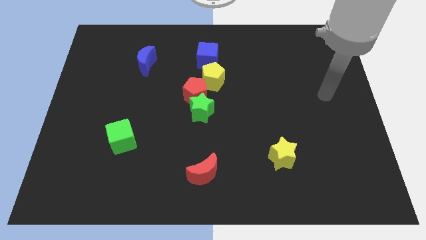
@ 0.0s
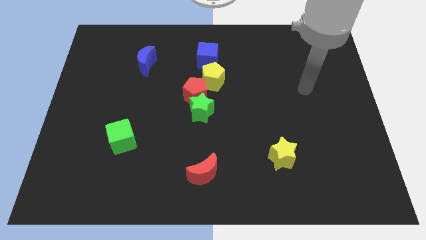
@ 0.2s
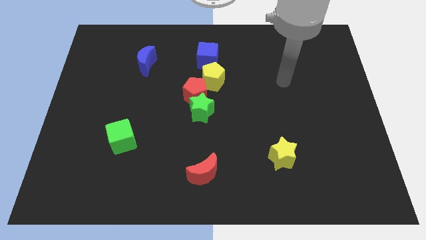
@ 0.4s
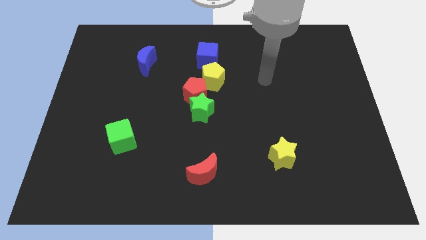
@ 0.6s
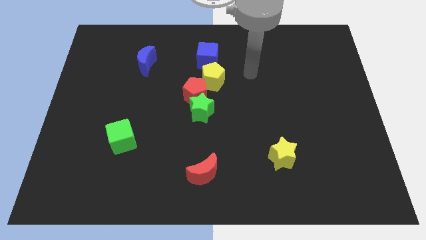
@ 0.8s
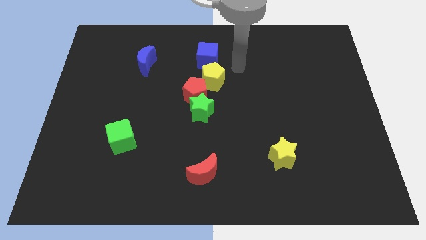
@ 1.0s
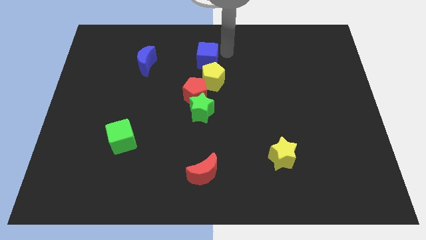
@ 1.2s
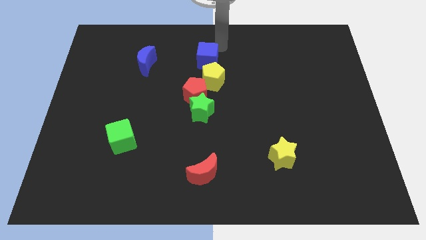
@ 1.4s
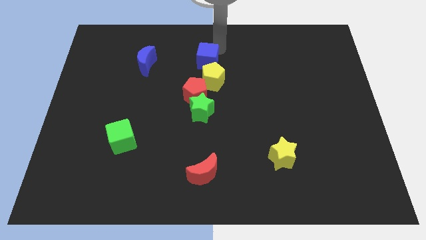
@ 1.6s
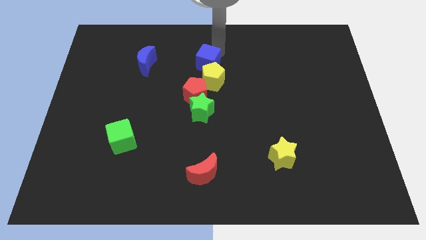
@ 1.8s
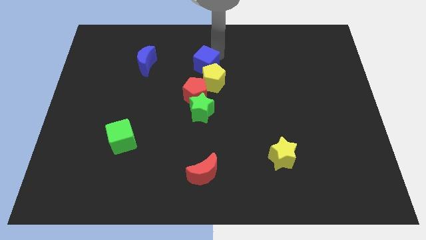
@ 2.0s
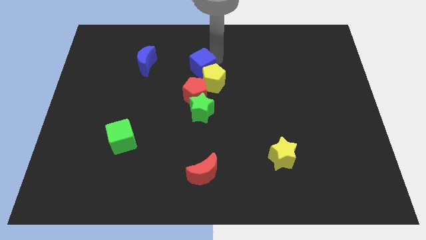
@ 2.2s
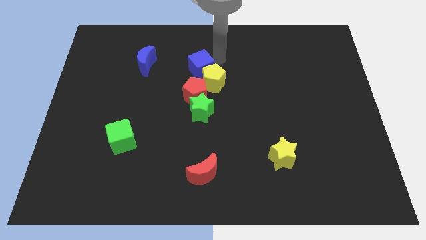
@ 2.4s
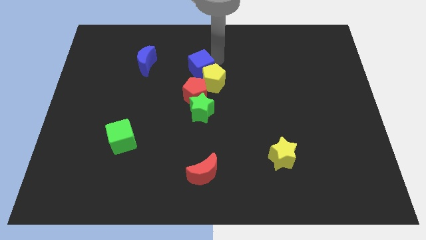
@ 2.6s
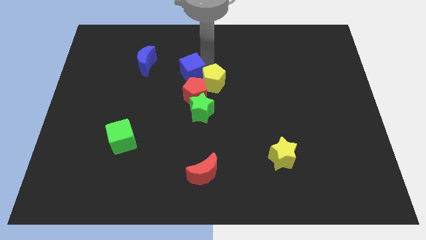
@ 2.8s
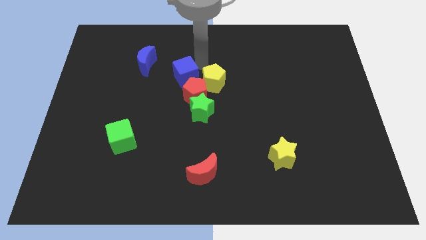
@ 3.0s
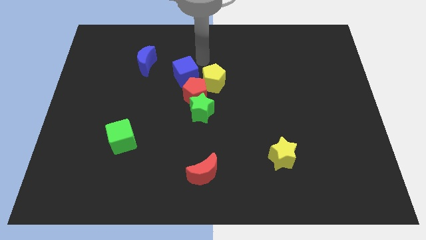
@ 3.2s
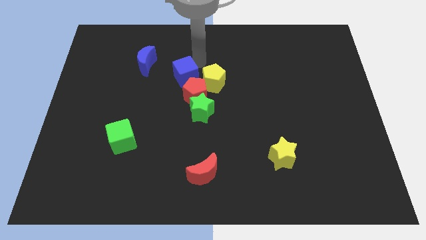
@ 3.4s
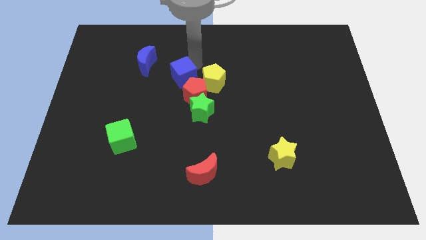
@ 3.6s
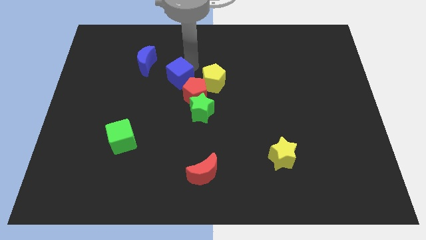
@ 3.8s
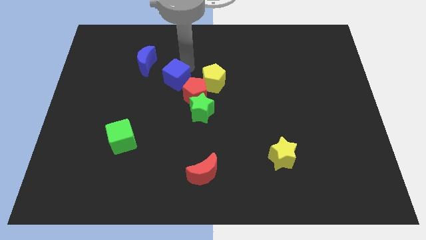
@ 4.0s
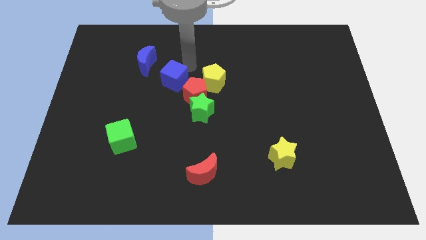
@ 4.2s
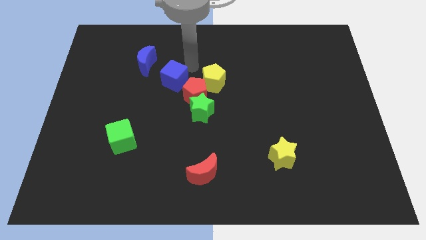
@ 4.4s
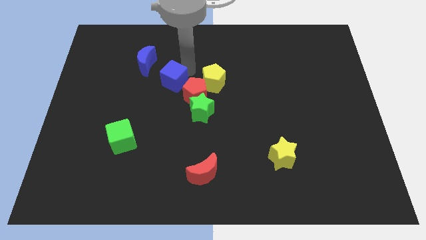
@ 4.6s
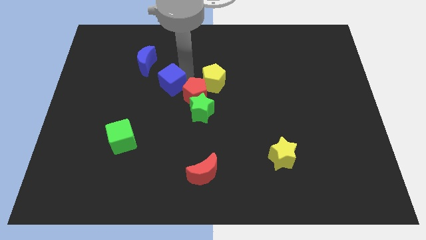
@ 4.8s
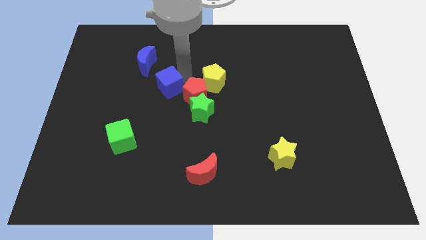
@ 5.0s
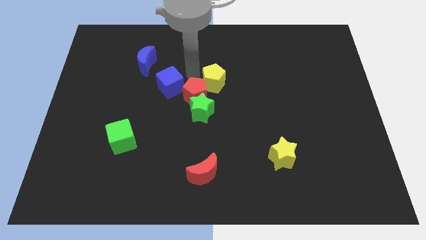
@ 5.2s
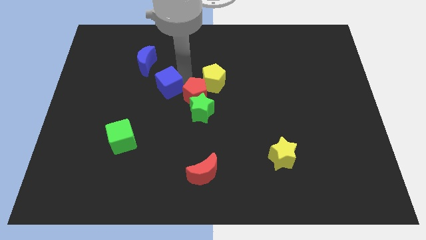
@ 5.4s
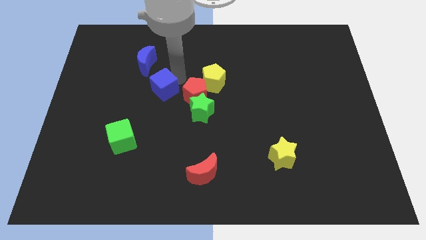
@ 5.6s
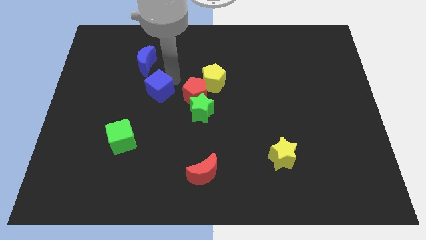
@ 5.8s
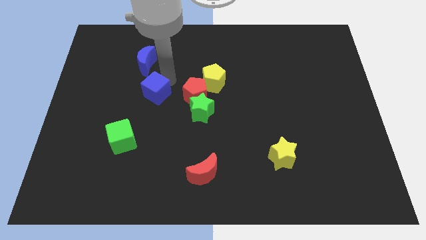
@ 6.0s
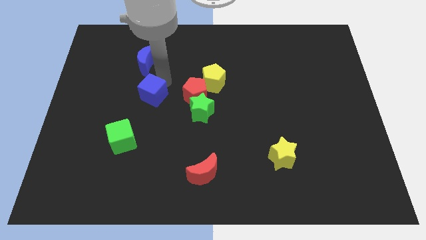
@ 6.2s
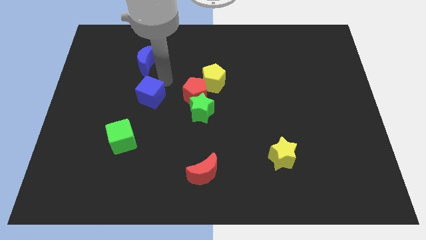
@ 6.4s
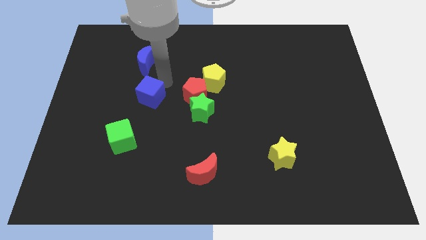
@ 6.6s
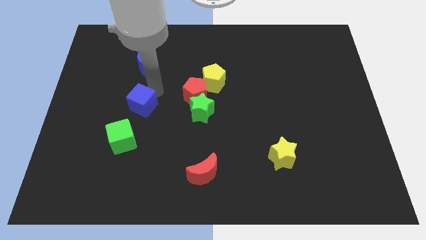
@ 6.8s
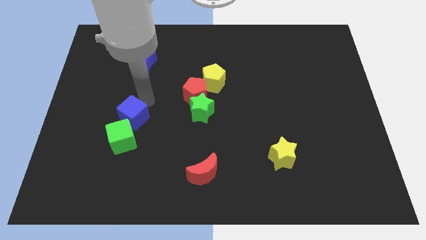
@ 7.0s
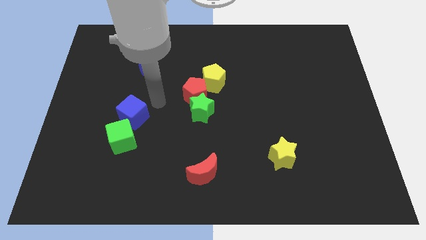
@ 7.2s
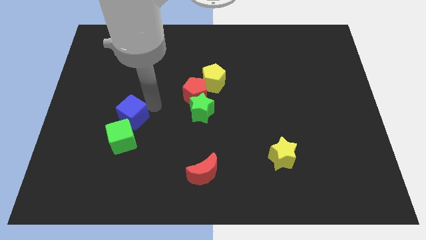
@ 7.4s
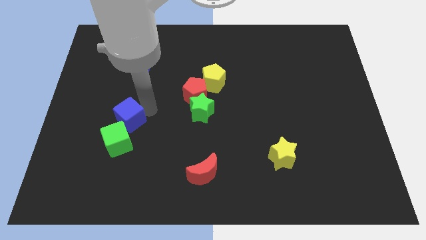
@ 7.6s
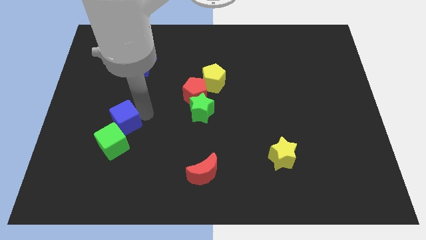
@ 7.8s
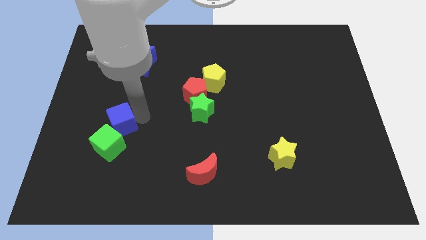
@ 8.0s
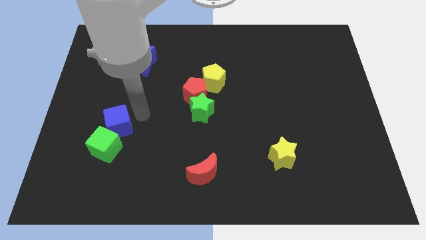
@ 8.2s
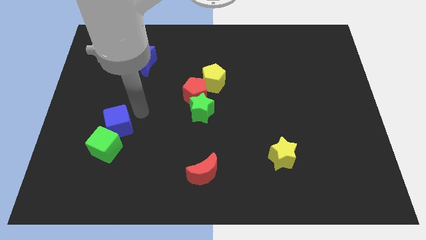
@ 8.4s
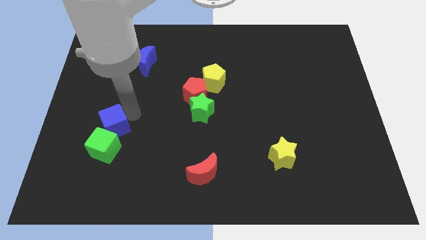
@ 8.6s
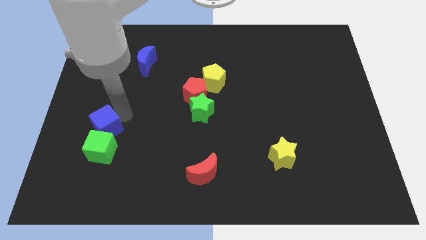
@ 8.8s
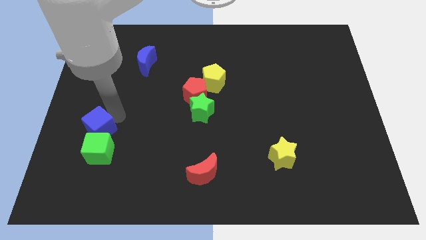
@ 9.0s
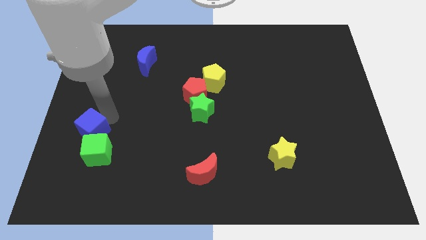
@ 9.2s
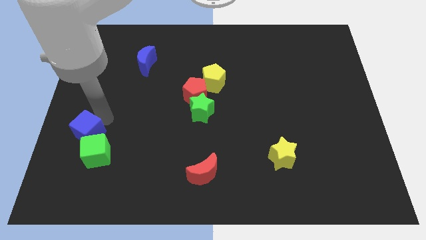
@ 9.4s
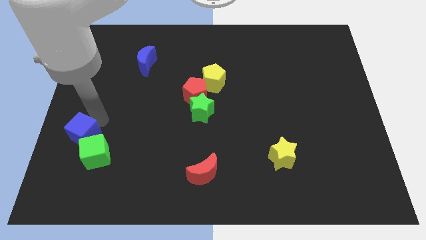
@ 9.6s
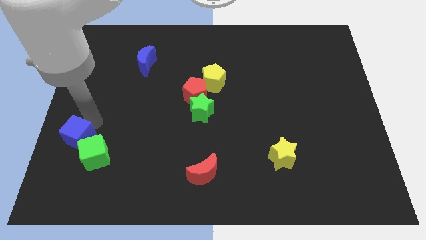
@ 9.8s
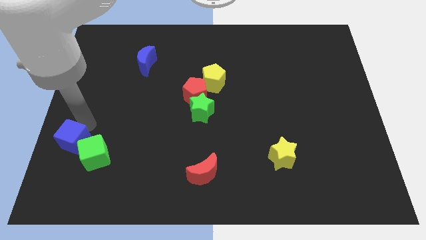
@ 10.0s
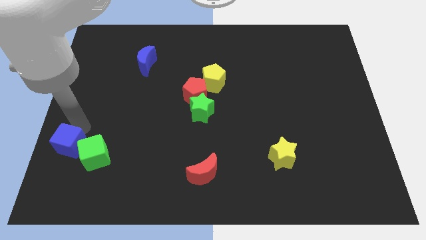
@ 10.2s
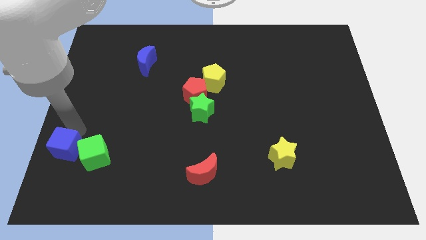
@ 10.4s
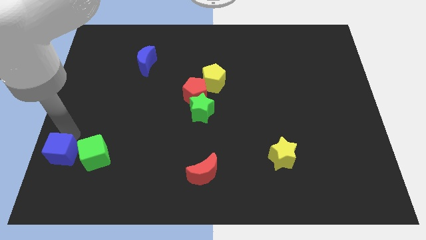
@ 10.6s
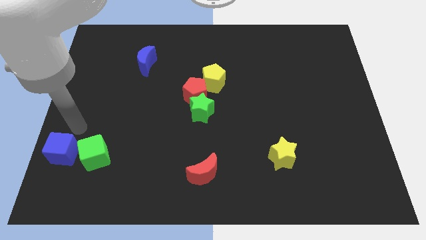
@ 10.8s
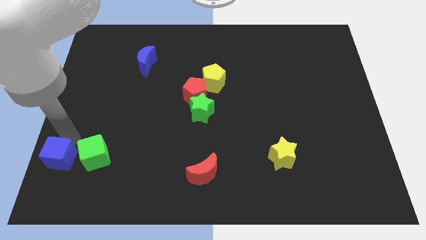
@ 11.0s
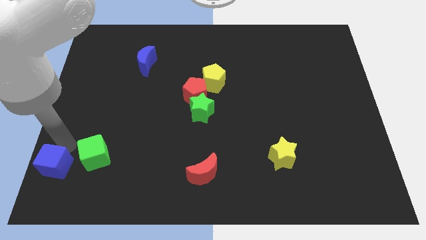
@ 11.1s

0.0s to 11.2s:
put the blue cube to the bottom left of the board

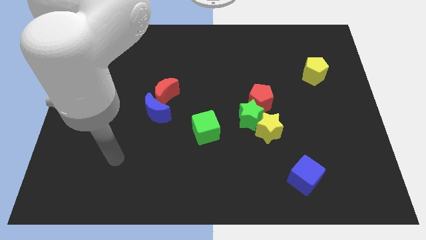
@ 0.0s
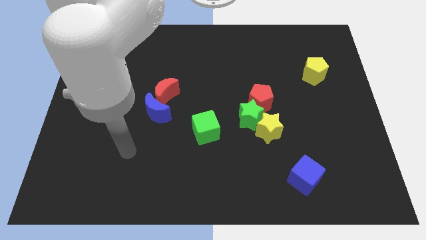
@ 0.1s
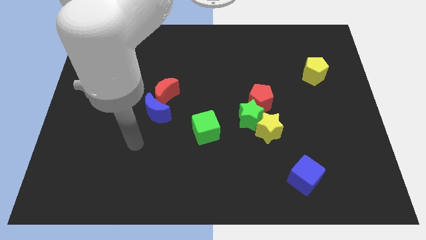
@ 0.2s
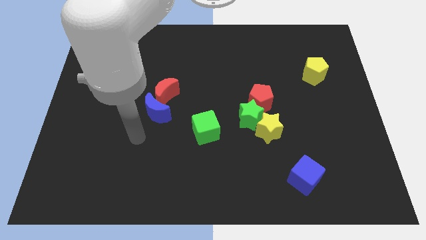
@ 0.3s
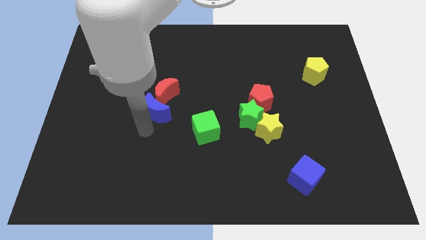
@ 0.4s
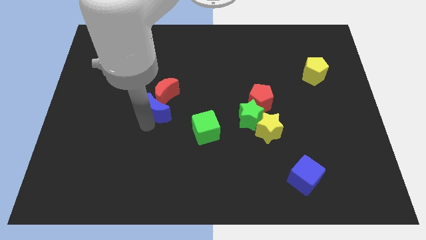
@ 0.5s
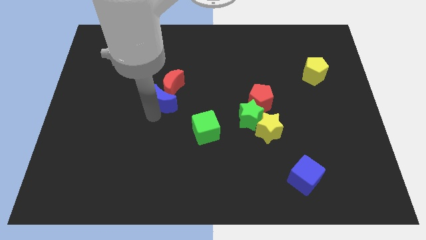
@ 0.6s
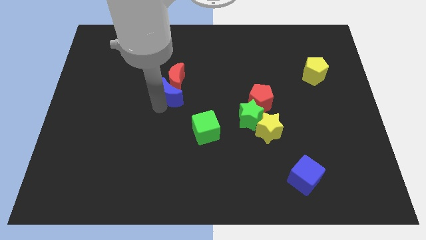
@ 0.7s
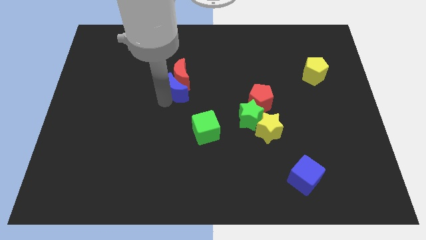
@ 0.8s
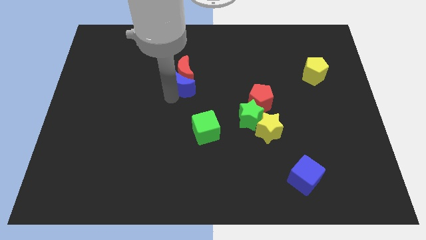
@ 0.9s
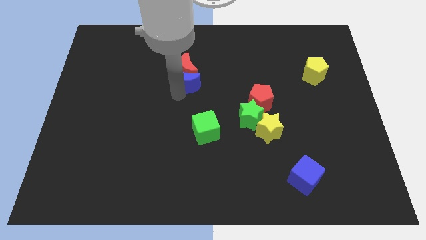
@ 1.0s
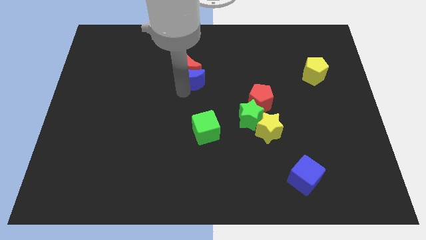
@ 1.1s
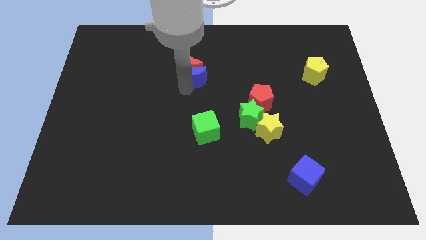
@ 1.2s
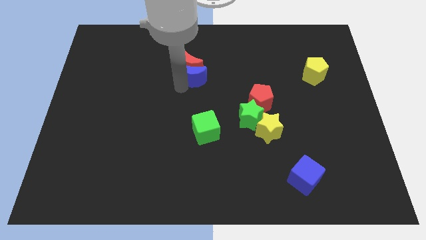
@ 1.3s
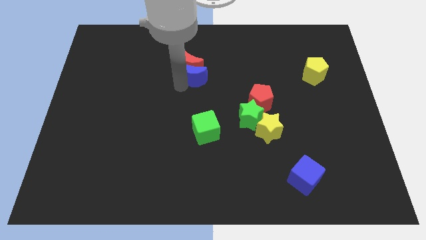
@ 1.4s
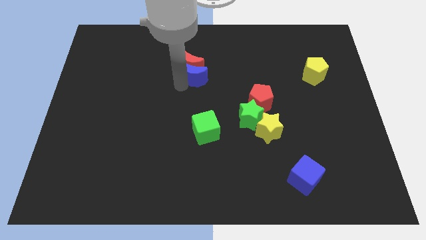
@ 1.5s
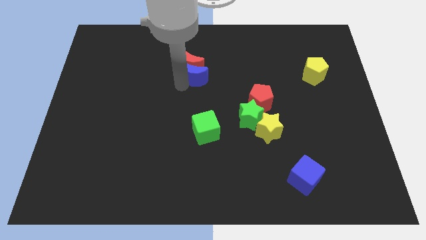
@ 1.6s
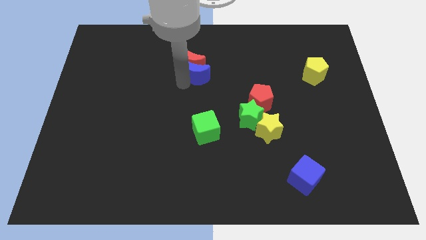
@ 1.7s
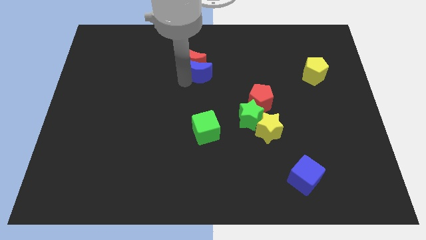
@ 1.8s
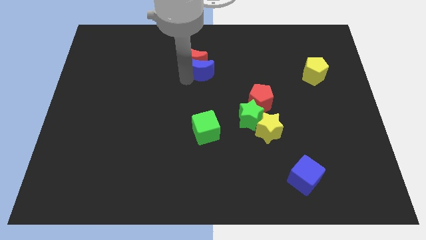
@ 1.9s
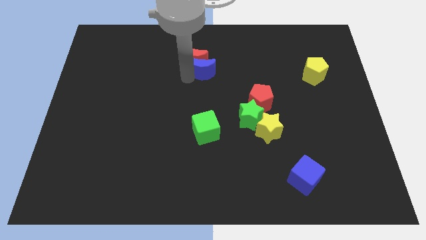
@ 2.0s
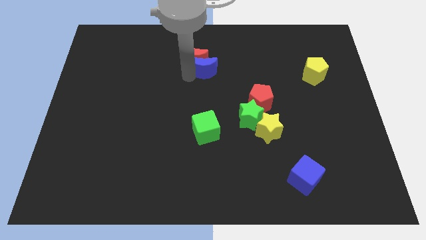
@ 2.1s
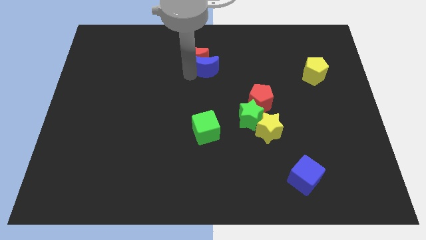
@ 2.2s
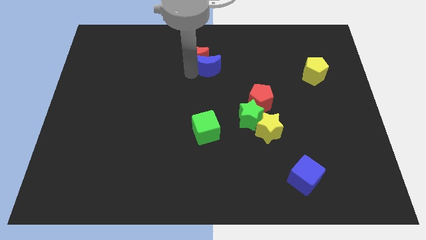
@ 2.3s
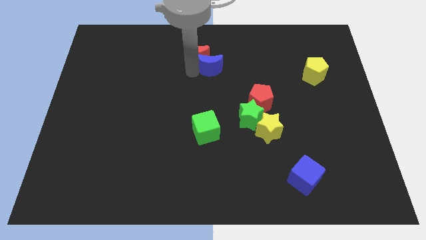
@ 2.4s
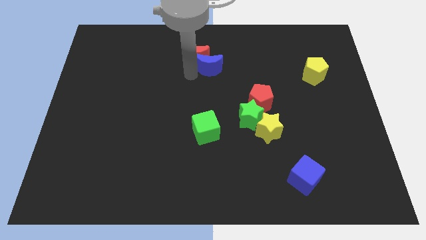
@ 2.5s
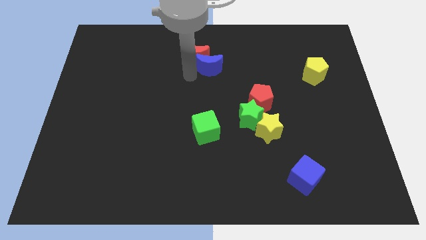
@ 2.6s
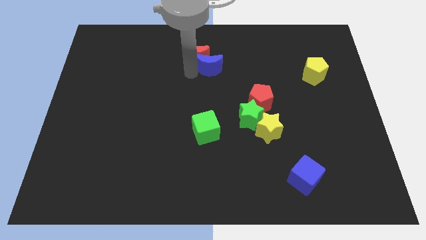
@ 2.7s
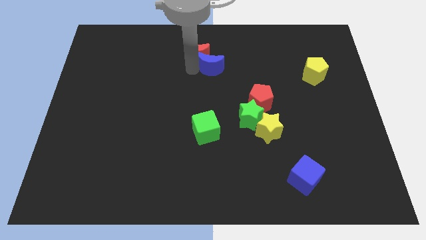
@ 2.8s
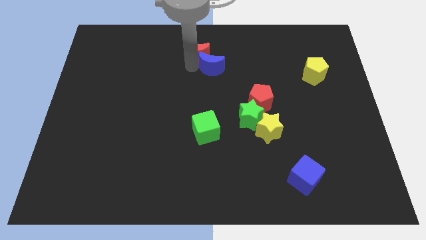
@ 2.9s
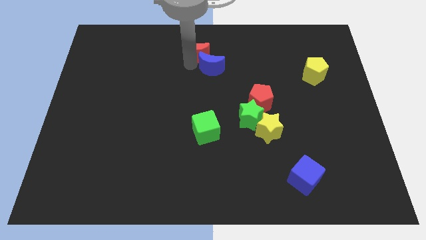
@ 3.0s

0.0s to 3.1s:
move the red moon to the top side
